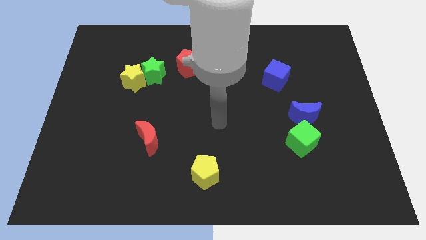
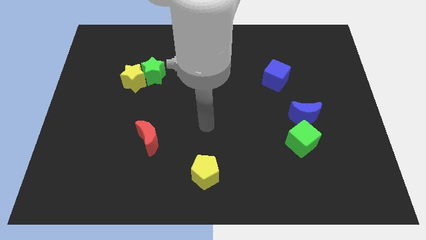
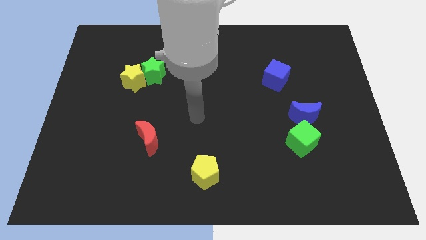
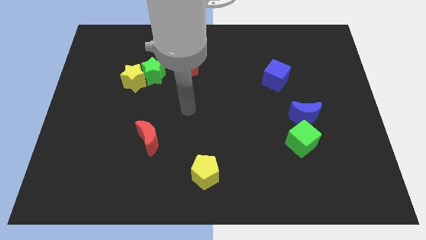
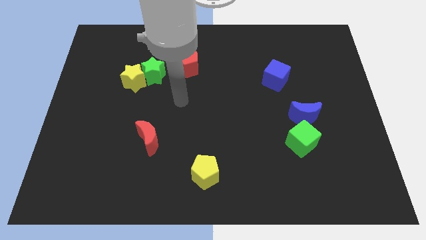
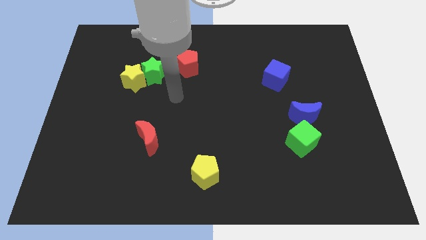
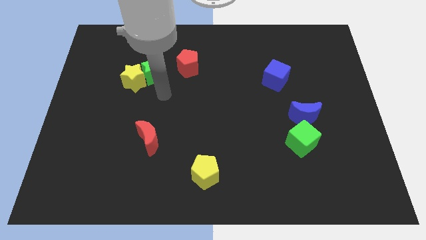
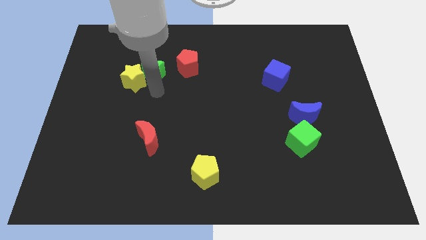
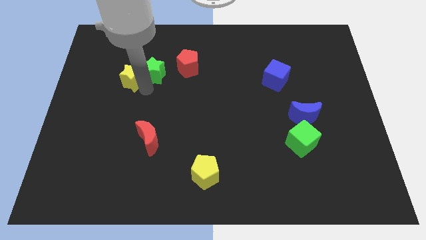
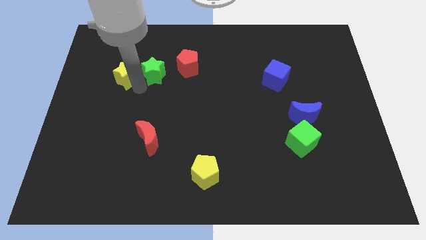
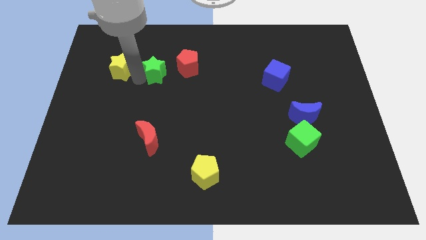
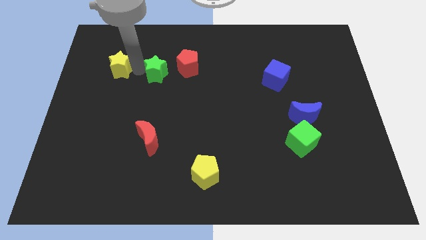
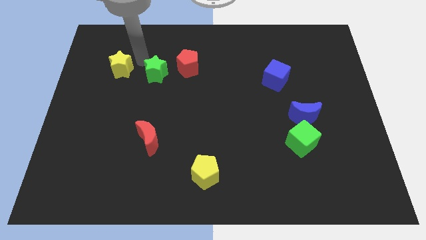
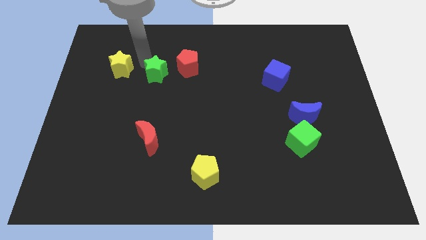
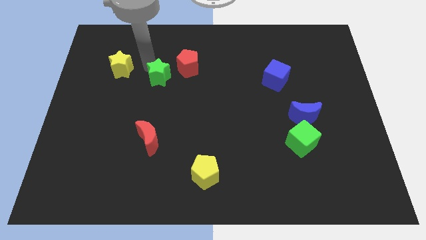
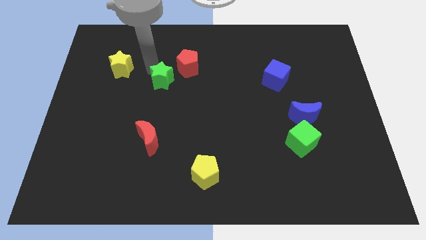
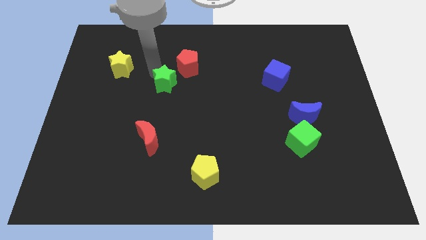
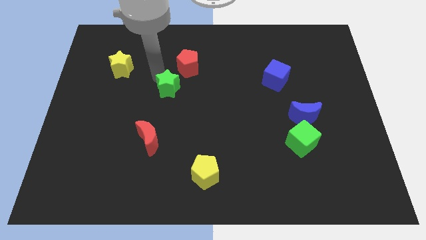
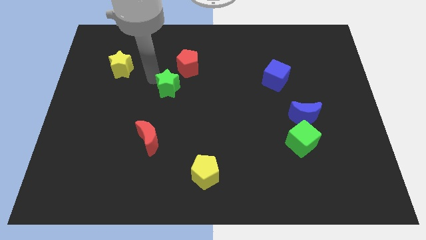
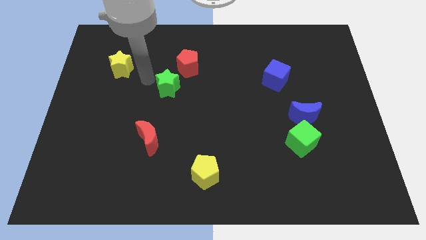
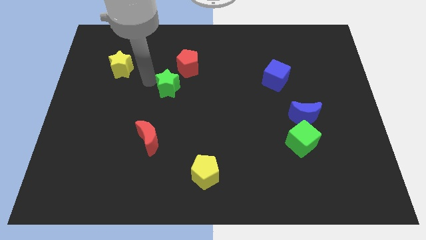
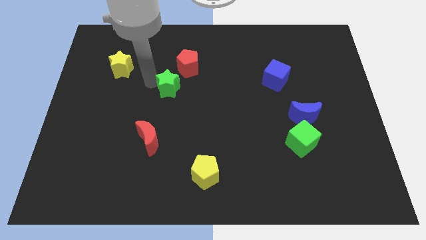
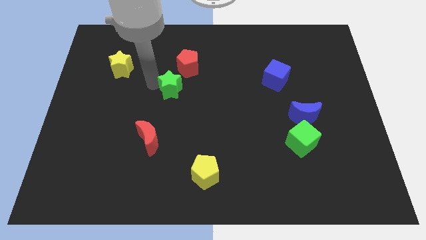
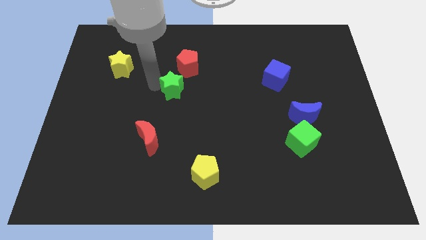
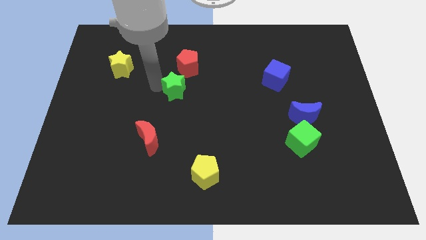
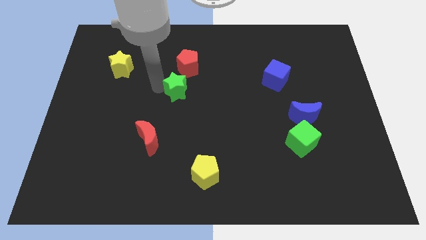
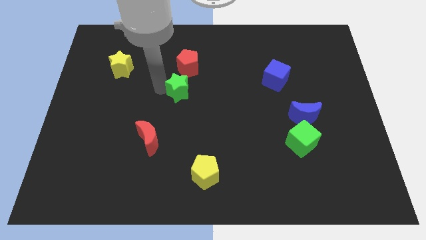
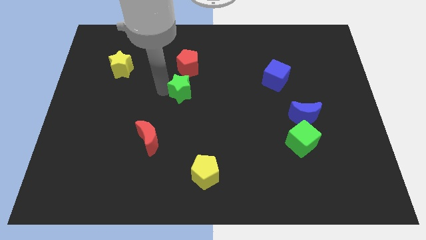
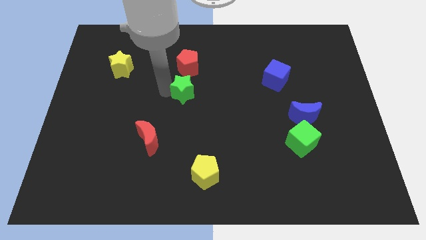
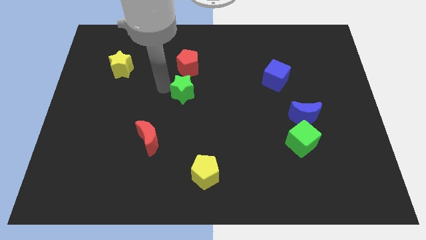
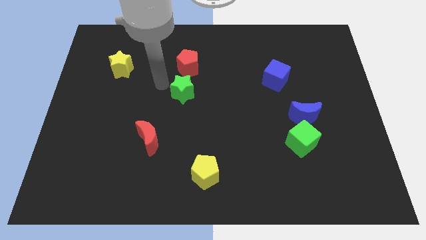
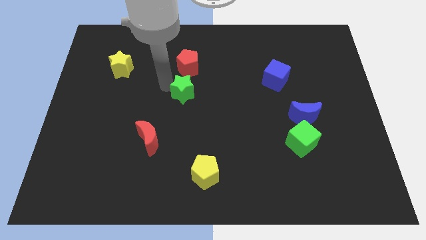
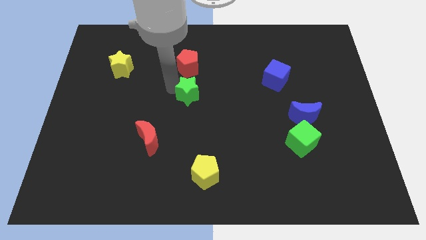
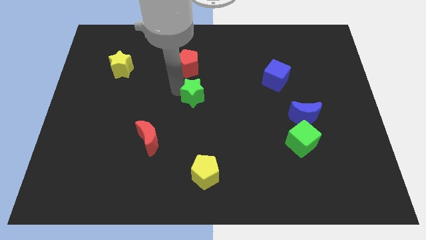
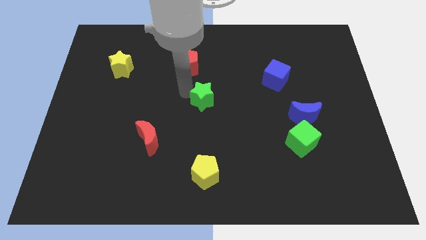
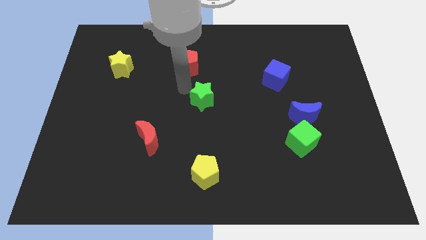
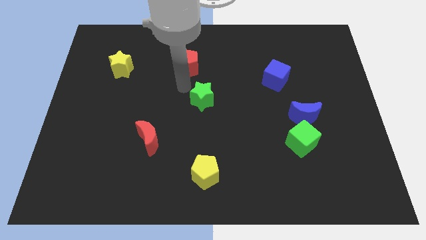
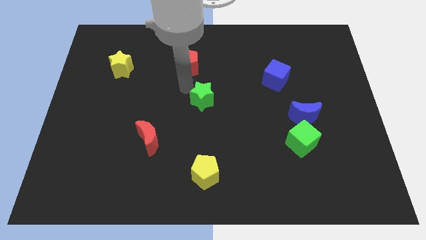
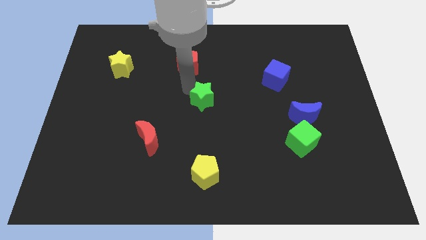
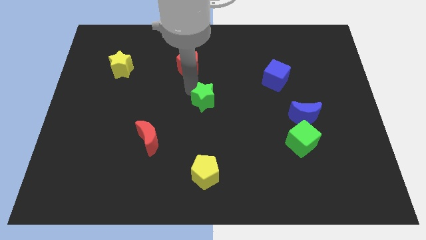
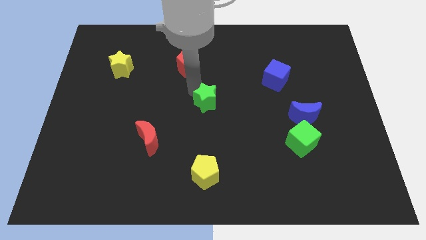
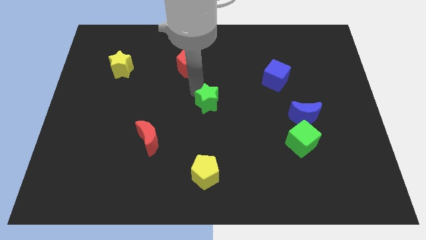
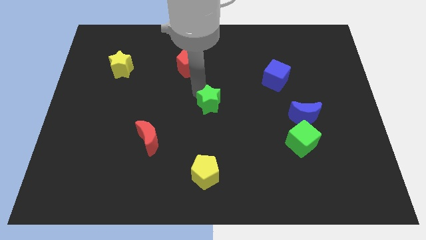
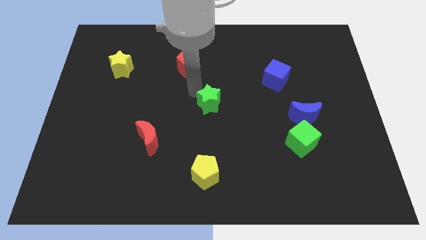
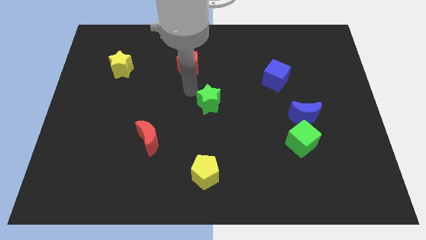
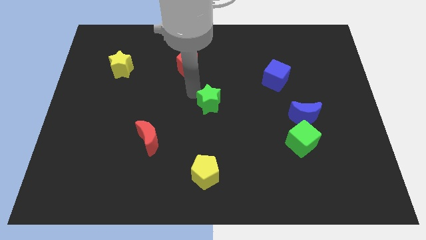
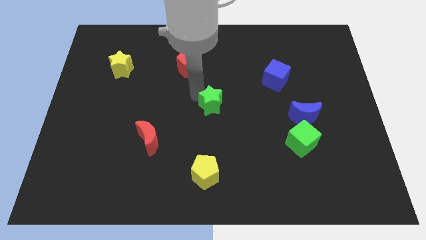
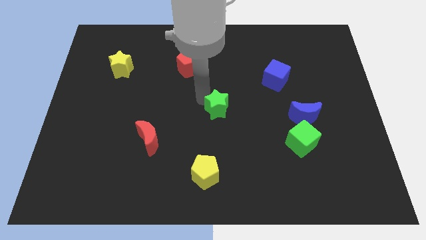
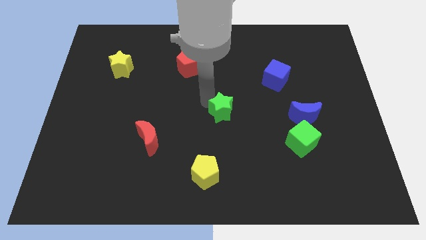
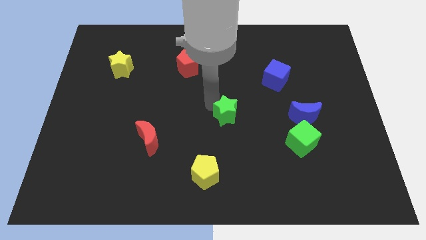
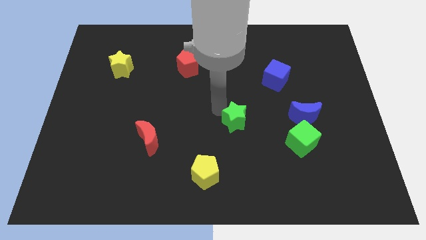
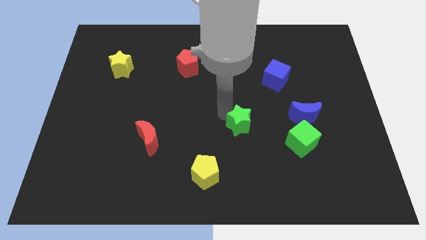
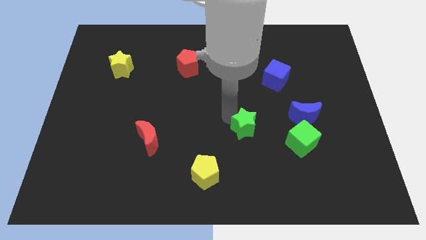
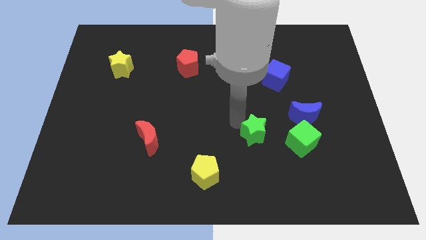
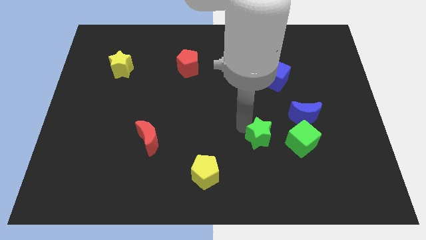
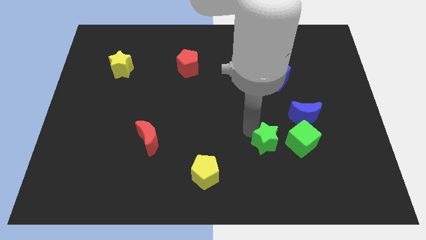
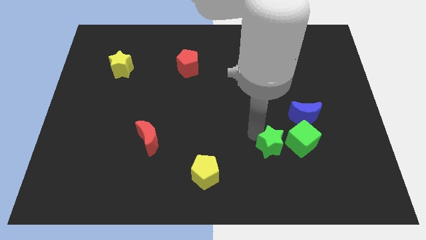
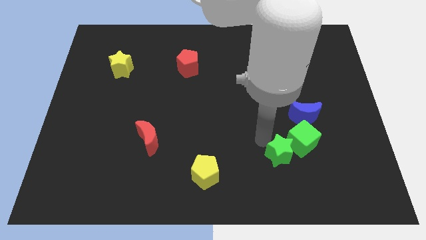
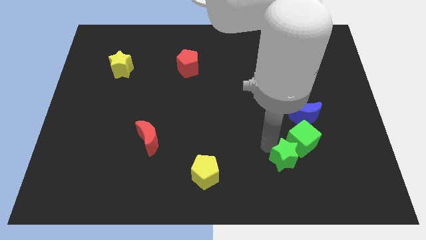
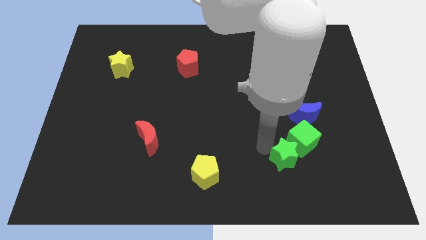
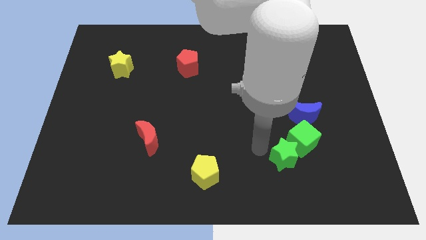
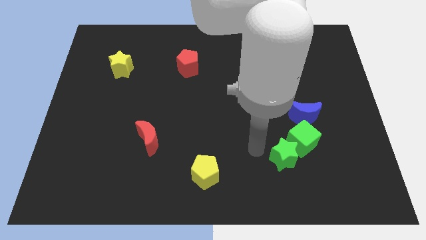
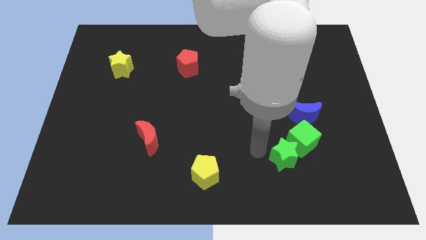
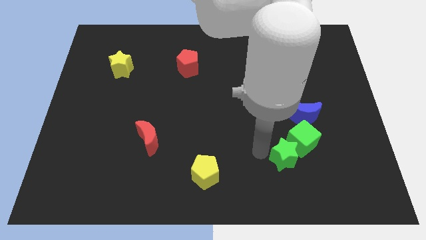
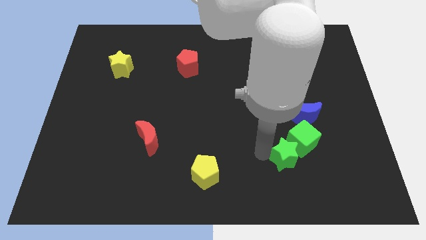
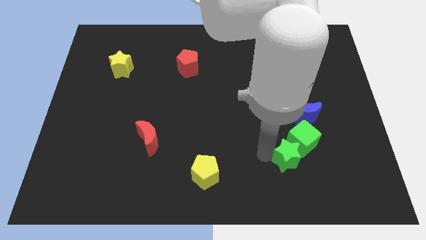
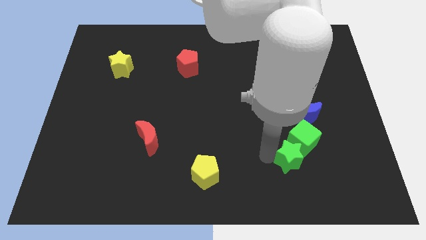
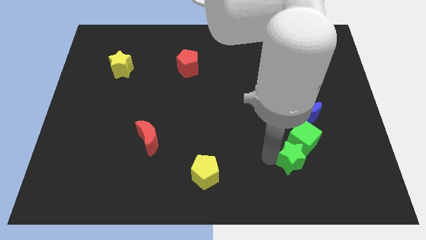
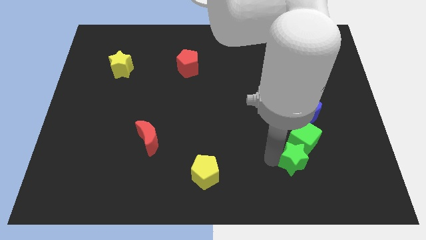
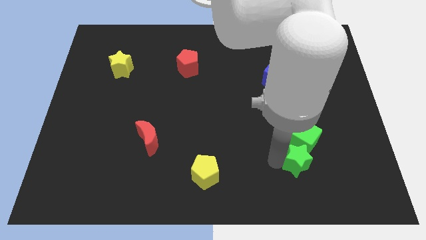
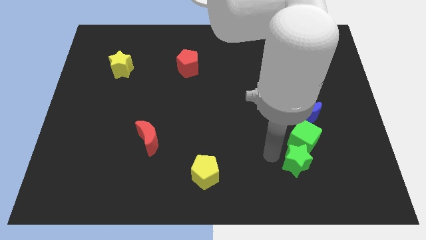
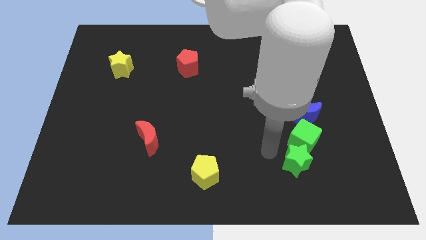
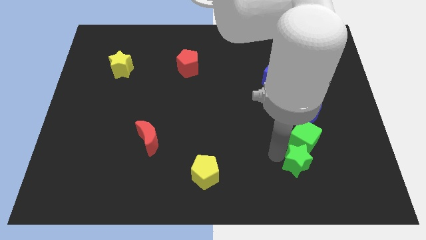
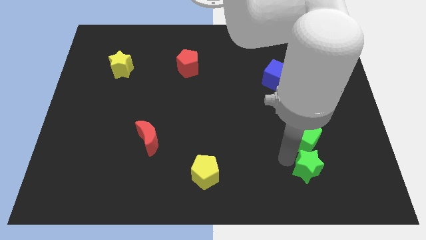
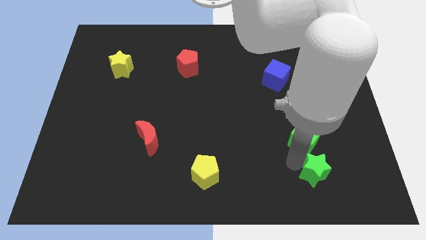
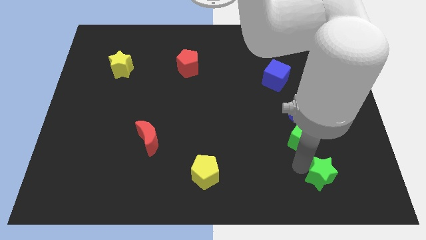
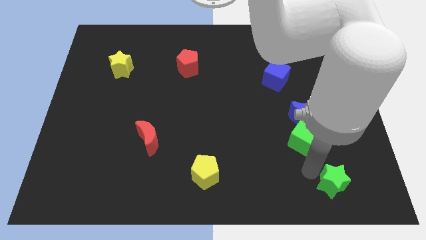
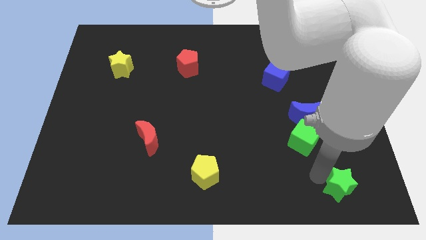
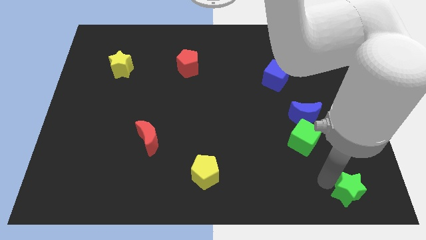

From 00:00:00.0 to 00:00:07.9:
push the green star to the bottom right
